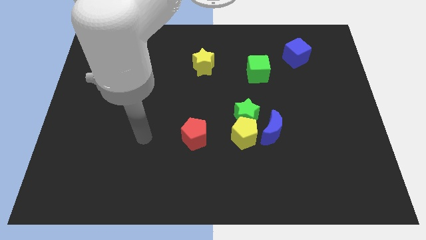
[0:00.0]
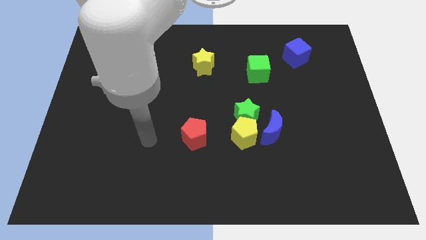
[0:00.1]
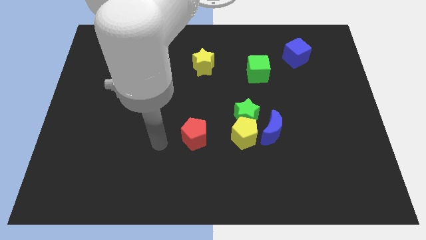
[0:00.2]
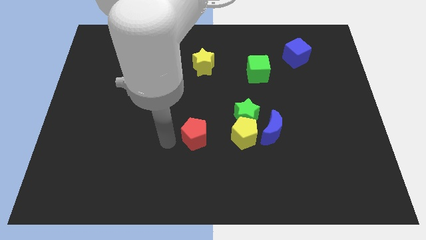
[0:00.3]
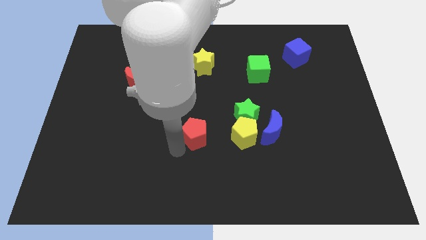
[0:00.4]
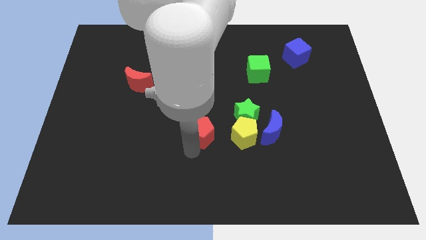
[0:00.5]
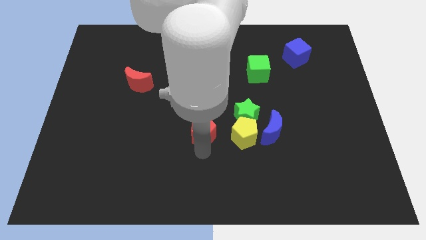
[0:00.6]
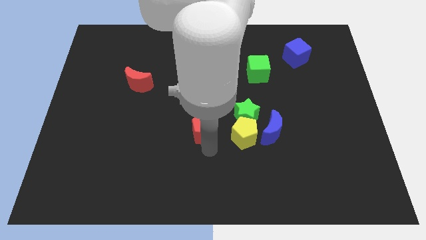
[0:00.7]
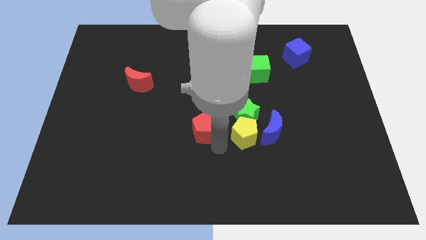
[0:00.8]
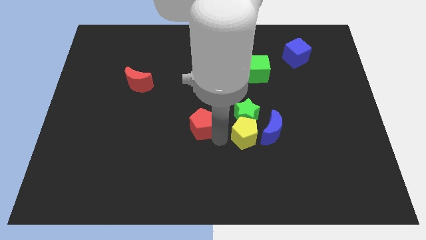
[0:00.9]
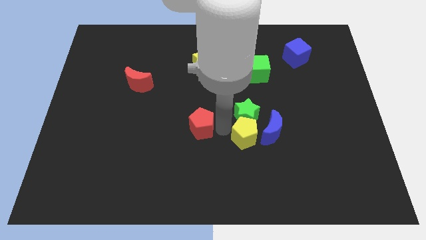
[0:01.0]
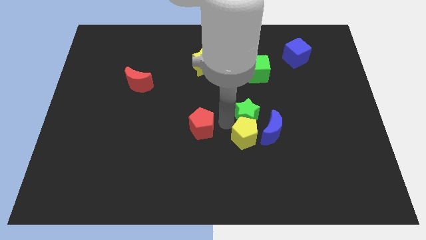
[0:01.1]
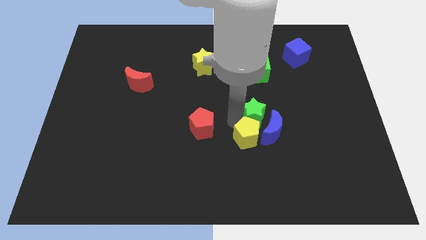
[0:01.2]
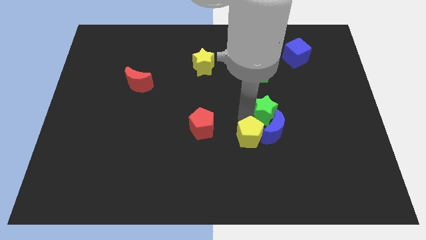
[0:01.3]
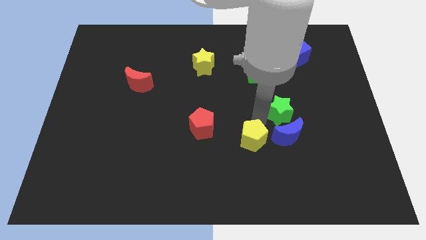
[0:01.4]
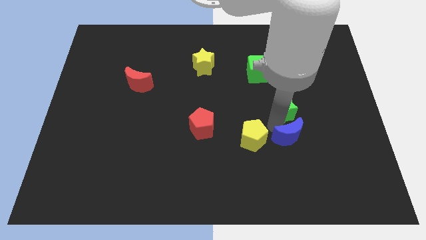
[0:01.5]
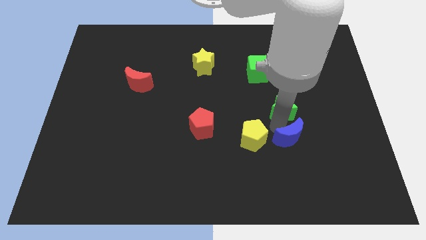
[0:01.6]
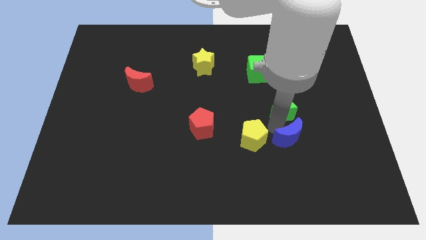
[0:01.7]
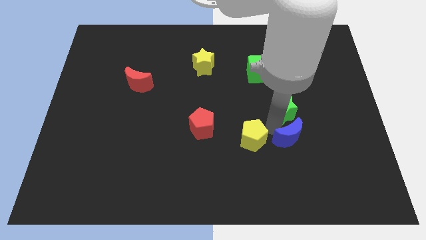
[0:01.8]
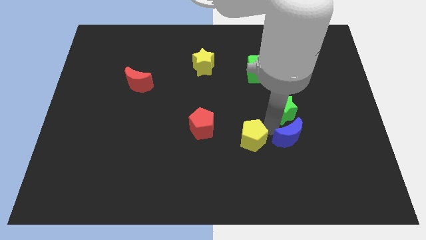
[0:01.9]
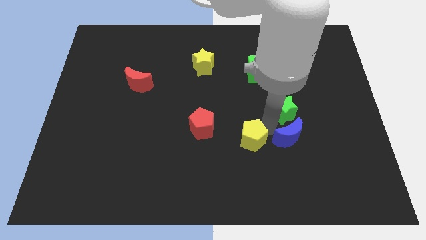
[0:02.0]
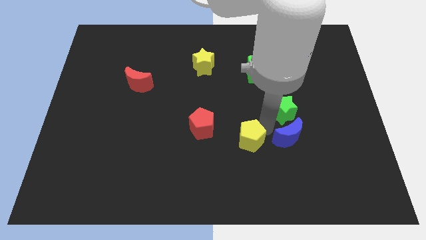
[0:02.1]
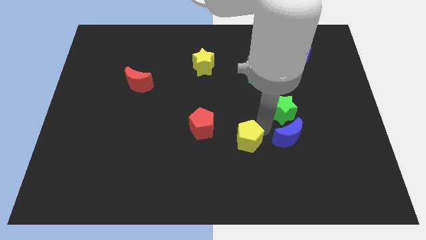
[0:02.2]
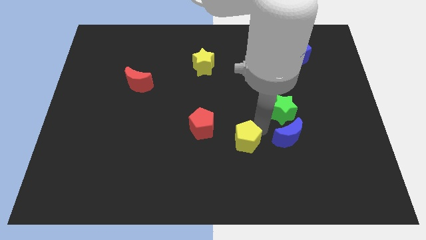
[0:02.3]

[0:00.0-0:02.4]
separate the yellow pentagon from the green star and blue moon

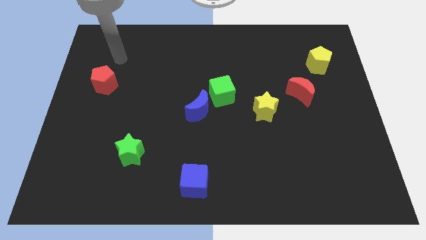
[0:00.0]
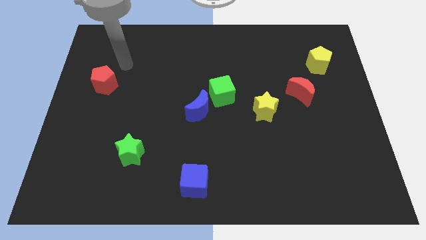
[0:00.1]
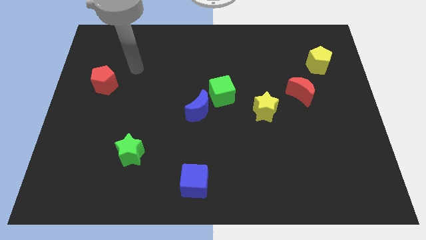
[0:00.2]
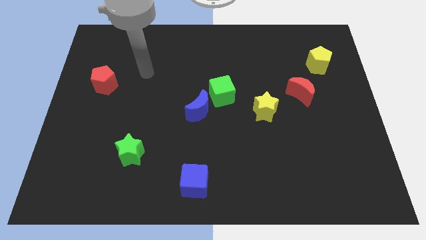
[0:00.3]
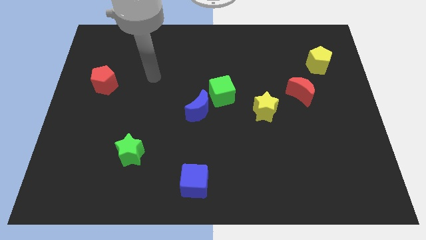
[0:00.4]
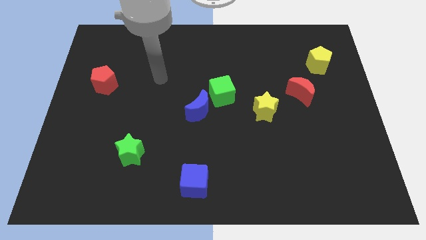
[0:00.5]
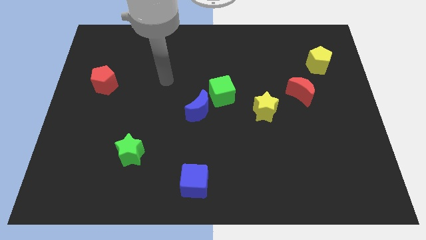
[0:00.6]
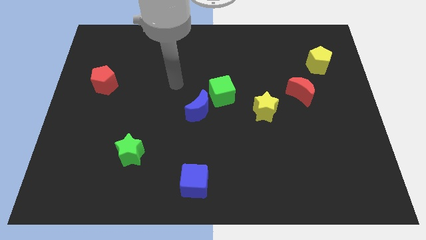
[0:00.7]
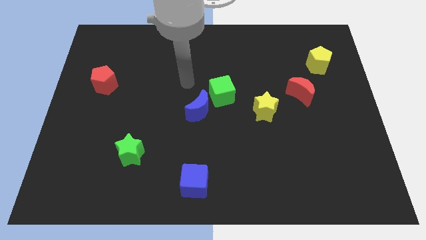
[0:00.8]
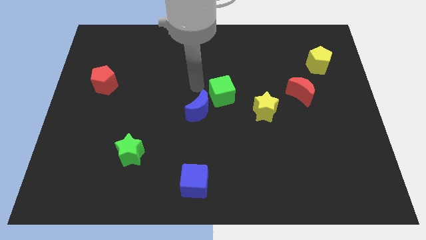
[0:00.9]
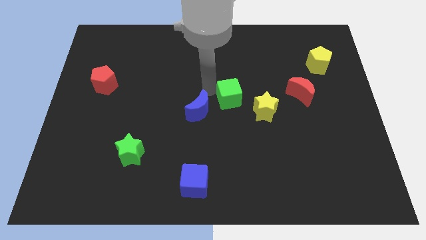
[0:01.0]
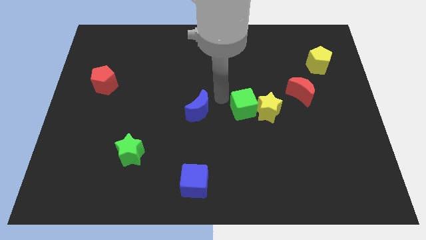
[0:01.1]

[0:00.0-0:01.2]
pull the blue moon apart from the green cube

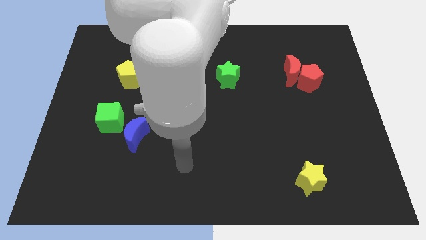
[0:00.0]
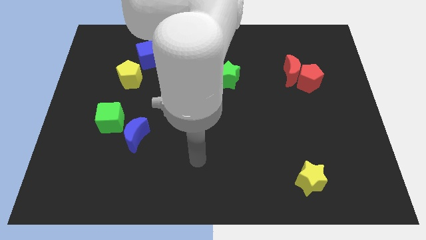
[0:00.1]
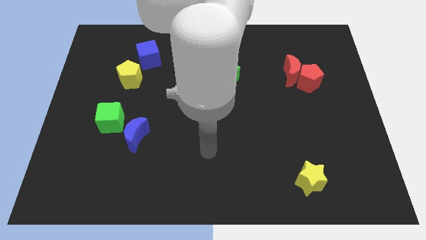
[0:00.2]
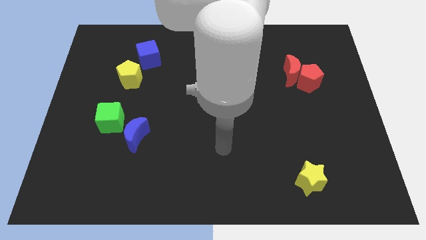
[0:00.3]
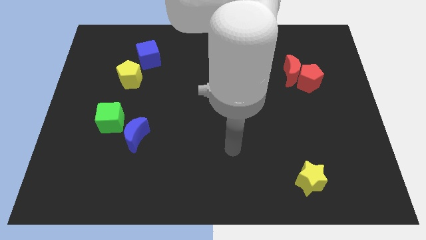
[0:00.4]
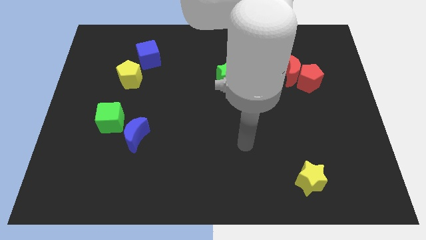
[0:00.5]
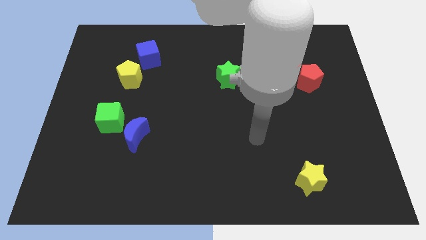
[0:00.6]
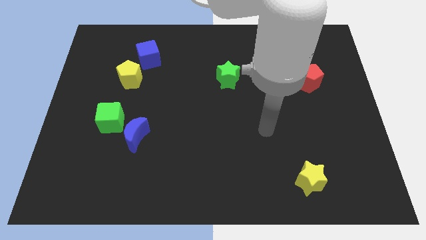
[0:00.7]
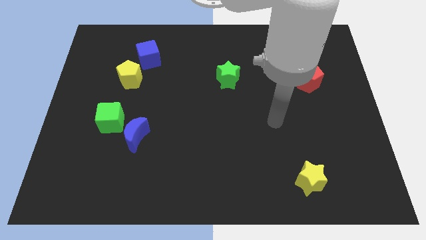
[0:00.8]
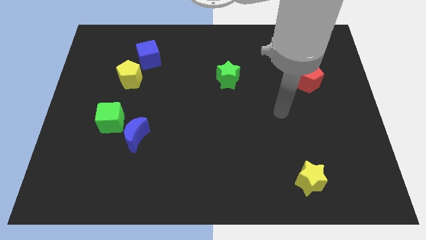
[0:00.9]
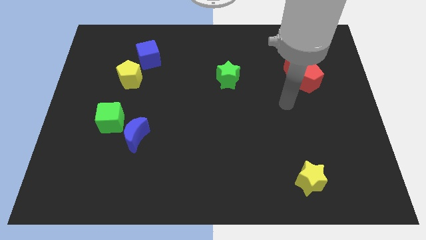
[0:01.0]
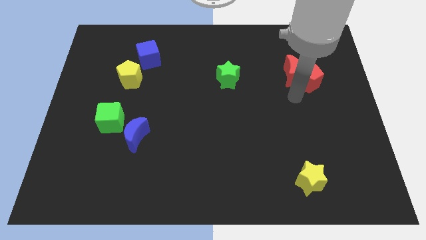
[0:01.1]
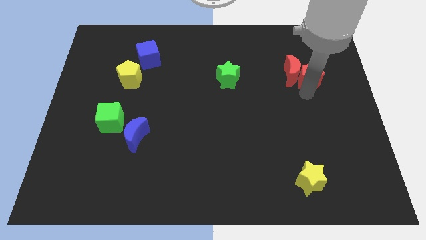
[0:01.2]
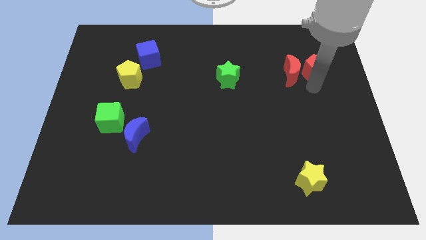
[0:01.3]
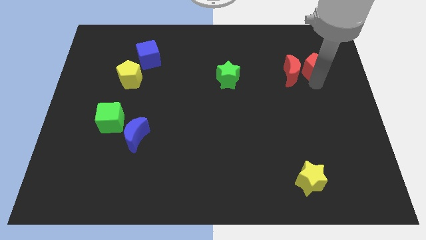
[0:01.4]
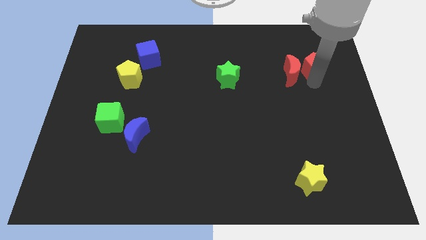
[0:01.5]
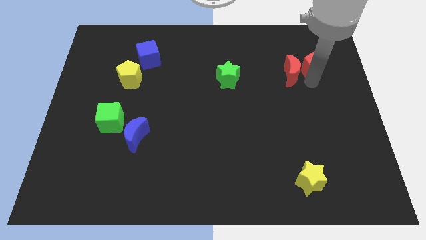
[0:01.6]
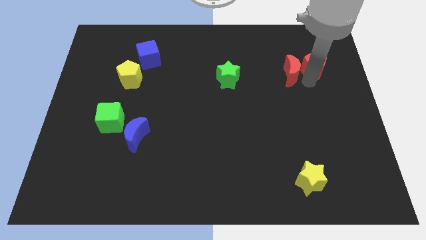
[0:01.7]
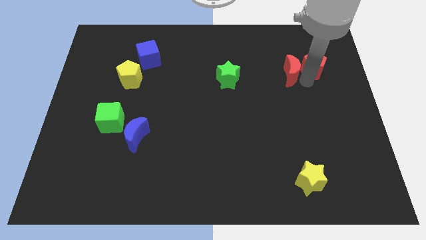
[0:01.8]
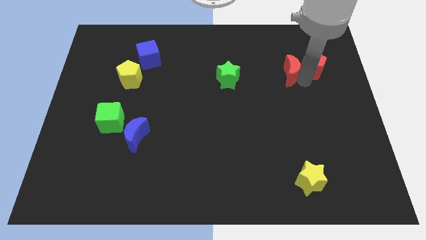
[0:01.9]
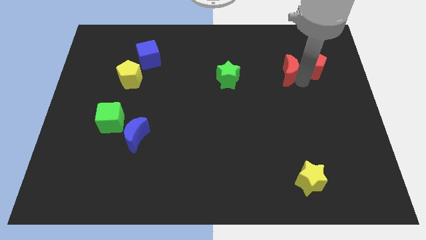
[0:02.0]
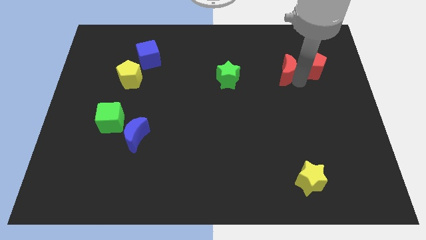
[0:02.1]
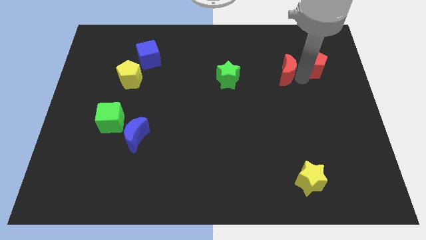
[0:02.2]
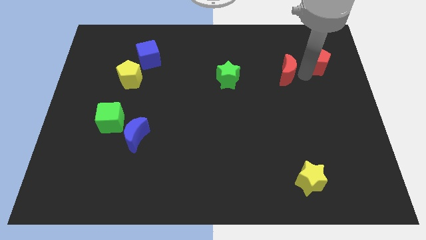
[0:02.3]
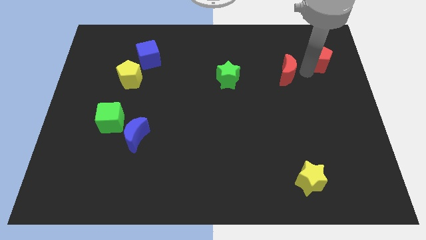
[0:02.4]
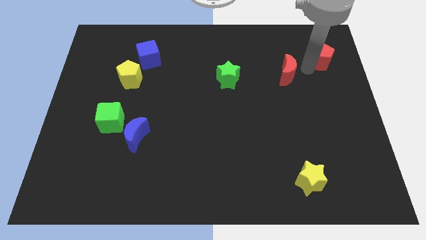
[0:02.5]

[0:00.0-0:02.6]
move the red moon away from the red pentagon

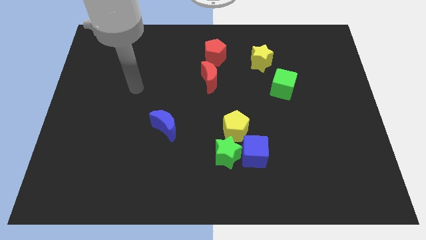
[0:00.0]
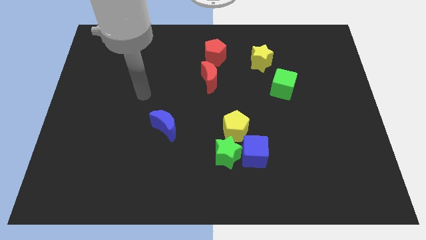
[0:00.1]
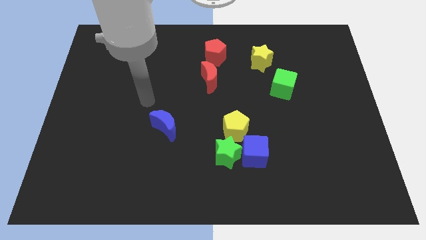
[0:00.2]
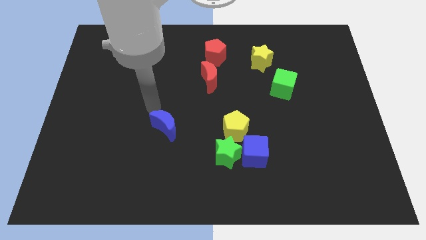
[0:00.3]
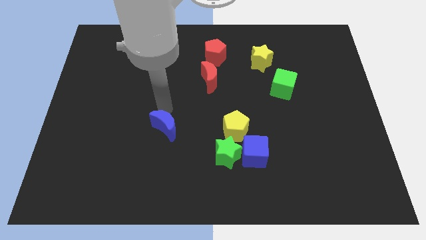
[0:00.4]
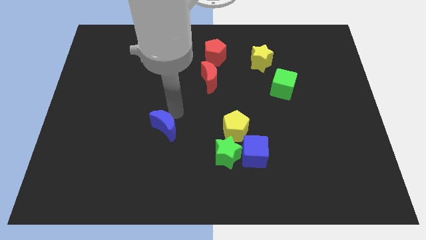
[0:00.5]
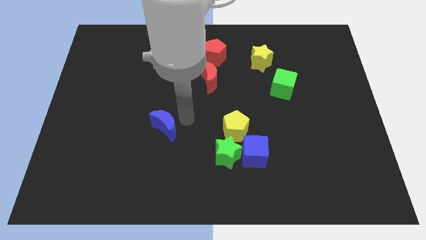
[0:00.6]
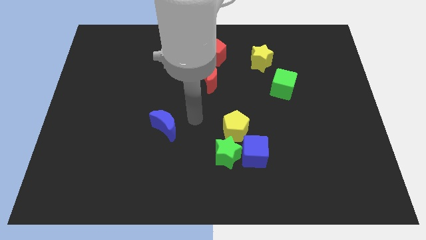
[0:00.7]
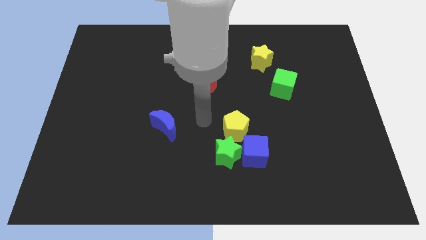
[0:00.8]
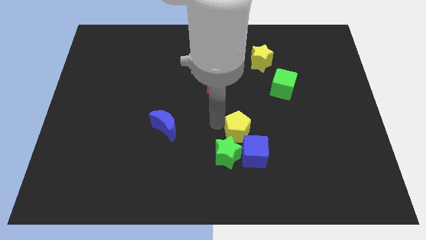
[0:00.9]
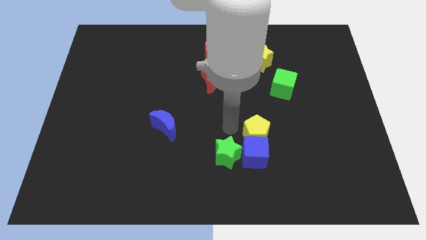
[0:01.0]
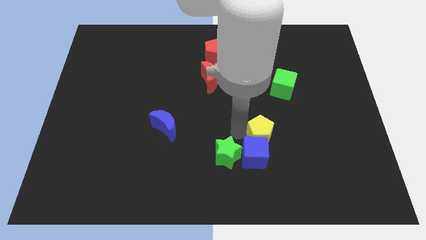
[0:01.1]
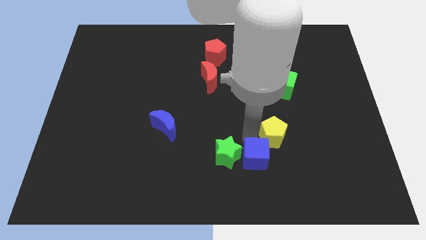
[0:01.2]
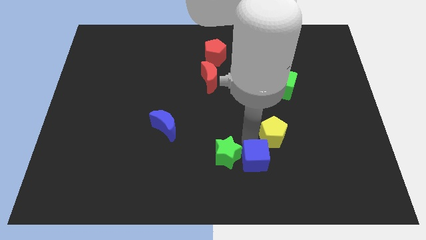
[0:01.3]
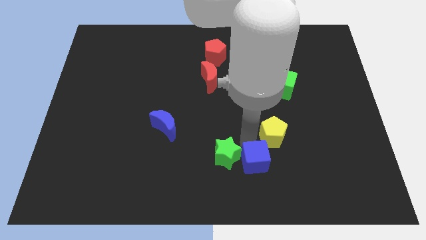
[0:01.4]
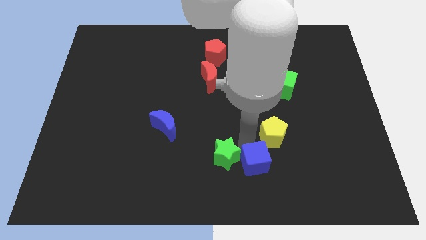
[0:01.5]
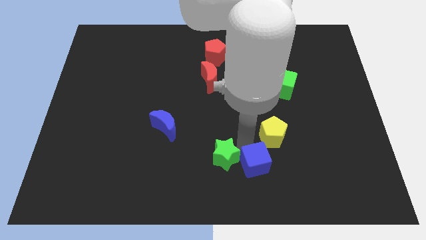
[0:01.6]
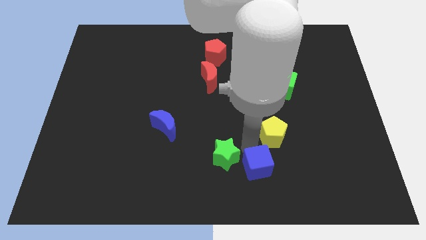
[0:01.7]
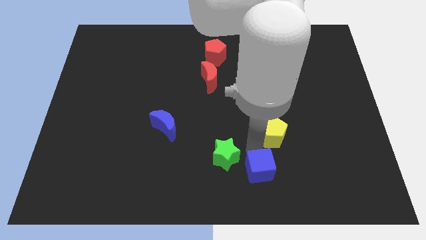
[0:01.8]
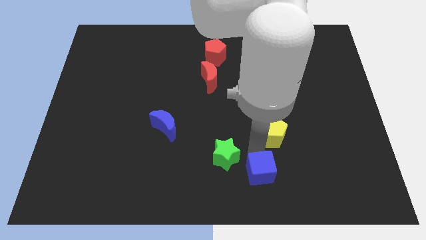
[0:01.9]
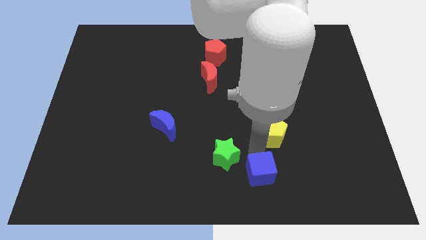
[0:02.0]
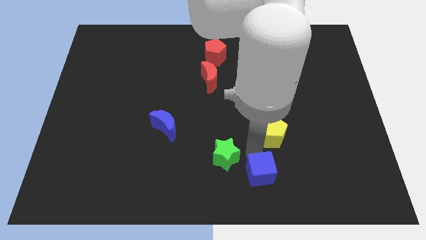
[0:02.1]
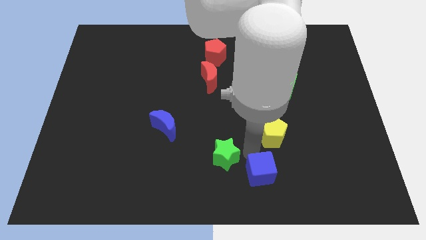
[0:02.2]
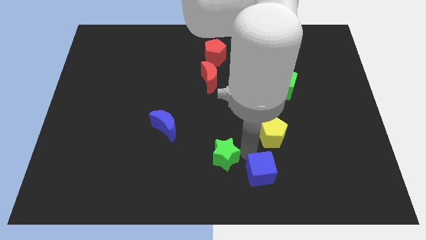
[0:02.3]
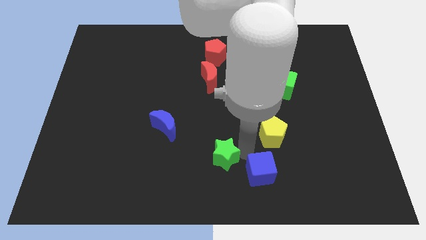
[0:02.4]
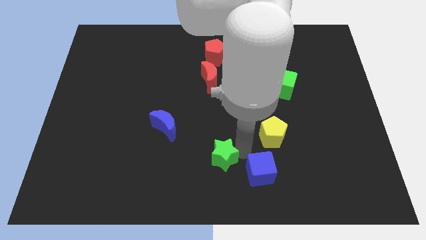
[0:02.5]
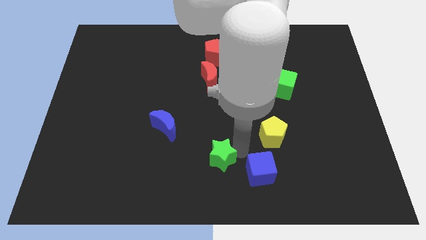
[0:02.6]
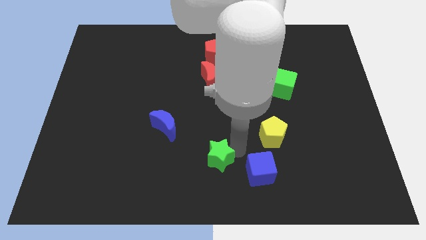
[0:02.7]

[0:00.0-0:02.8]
pull the green star apart from the blue cube and yellow pentagon

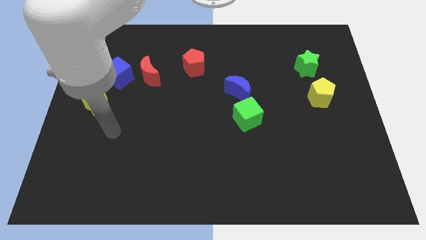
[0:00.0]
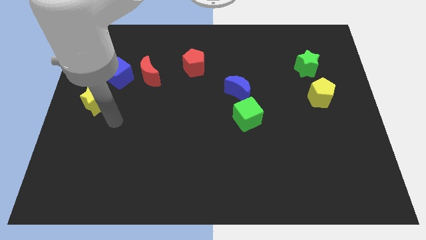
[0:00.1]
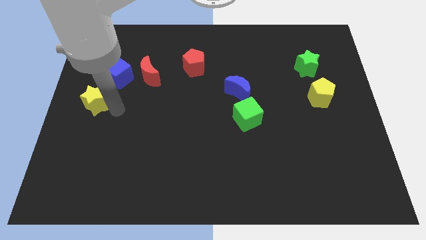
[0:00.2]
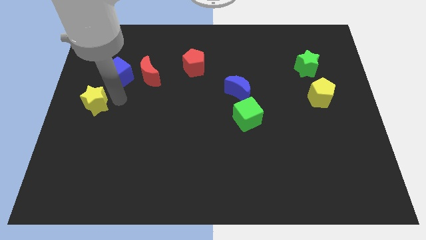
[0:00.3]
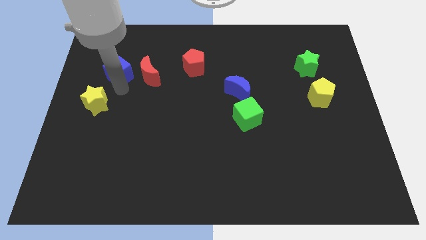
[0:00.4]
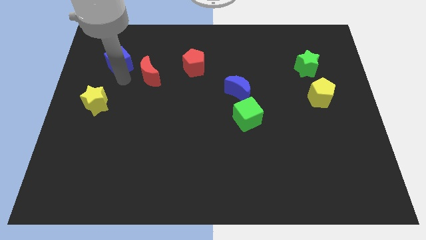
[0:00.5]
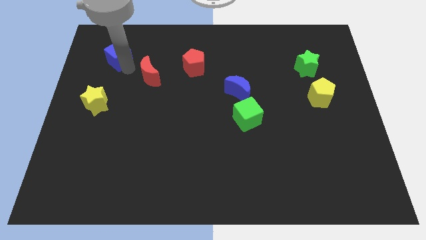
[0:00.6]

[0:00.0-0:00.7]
pull the red moon apart from the blue cube
